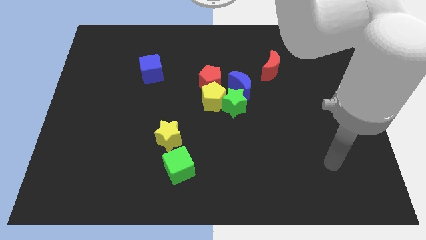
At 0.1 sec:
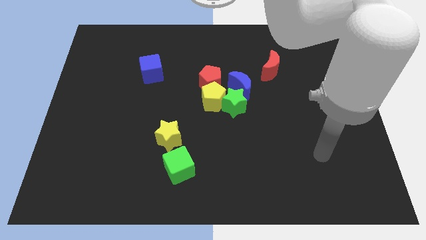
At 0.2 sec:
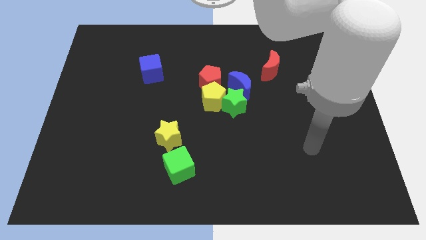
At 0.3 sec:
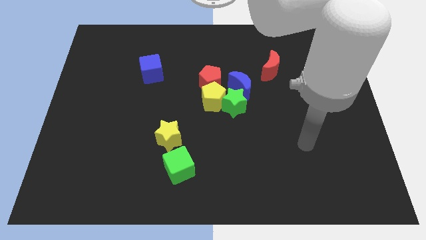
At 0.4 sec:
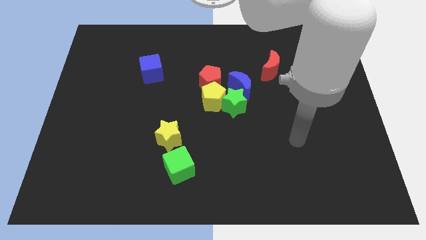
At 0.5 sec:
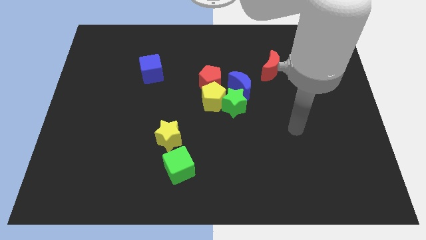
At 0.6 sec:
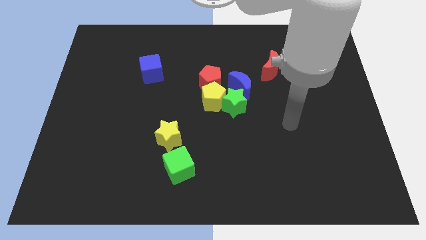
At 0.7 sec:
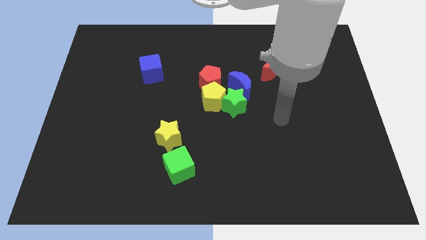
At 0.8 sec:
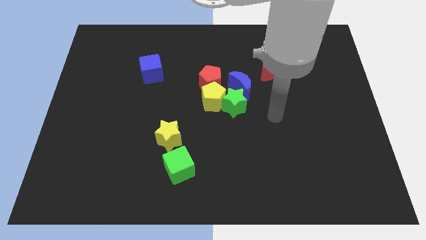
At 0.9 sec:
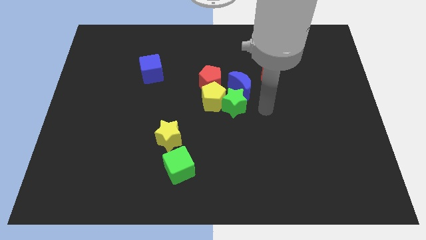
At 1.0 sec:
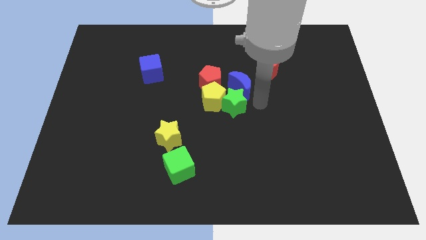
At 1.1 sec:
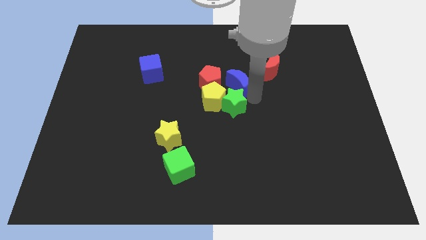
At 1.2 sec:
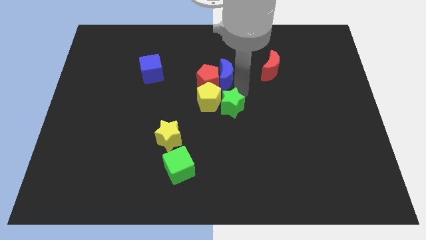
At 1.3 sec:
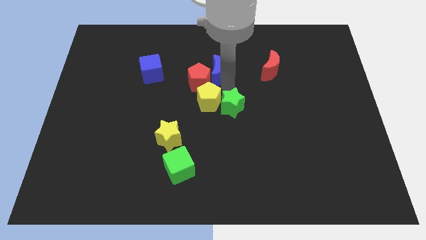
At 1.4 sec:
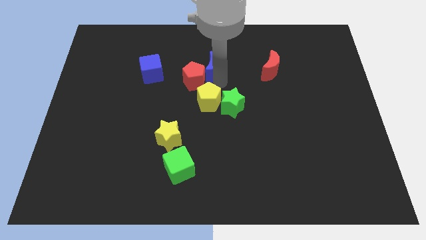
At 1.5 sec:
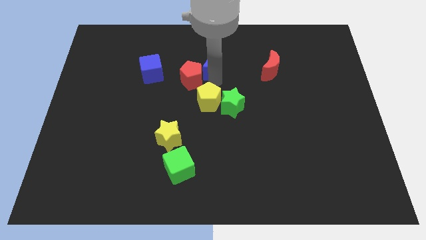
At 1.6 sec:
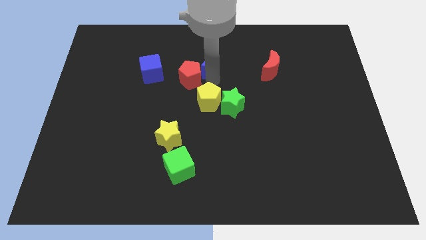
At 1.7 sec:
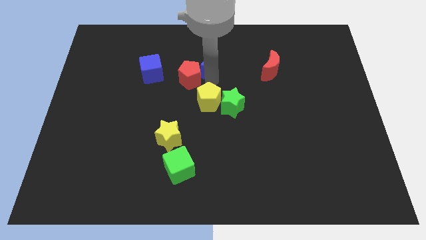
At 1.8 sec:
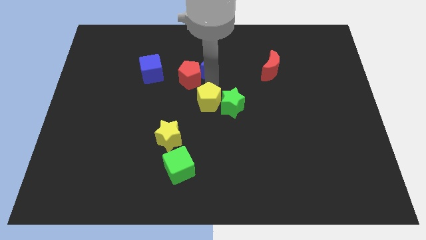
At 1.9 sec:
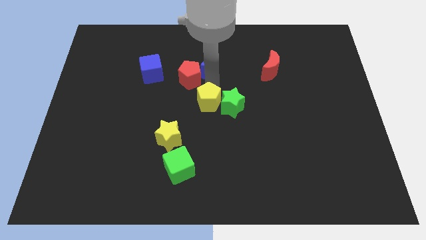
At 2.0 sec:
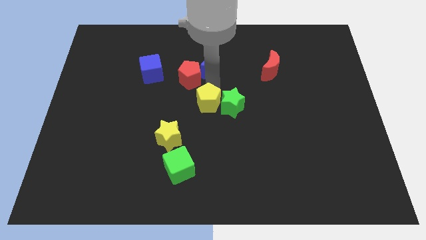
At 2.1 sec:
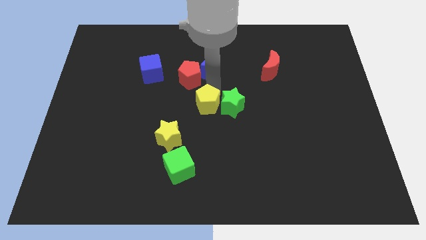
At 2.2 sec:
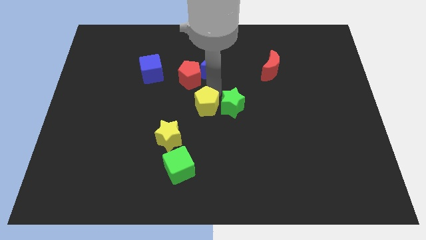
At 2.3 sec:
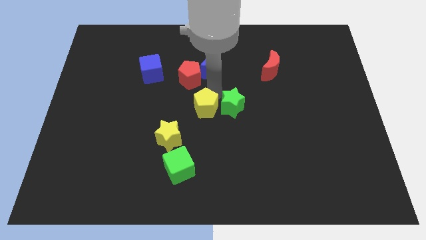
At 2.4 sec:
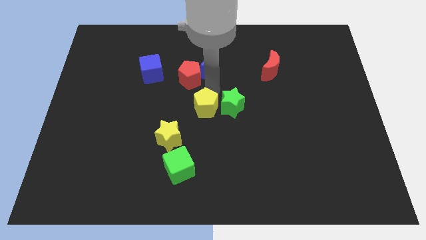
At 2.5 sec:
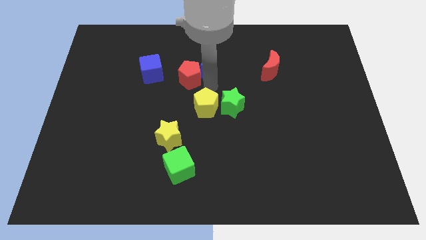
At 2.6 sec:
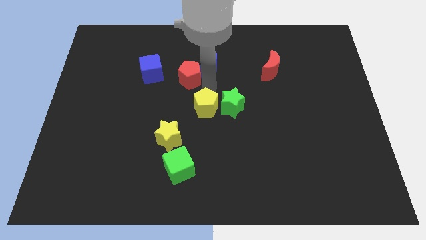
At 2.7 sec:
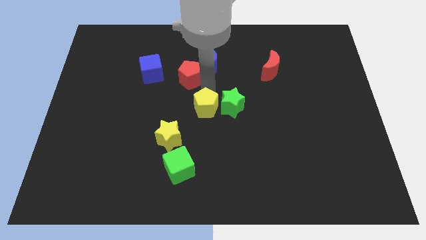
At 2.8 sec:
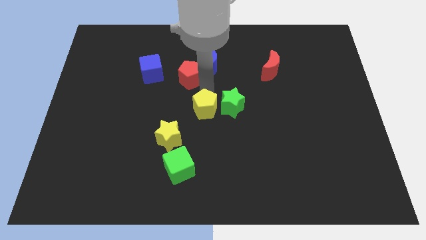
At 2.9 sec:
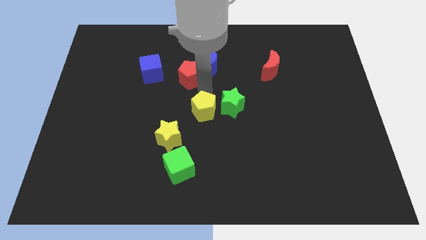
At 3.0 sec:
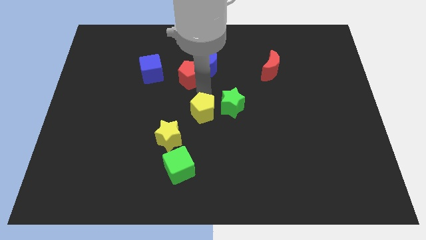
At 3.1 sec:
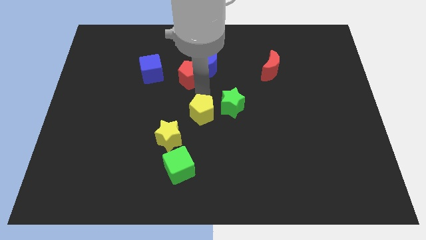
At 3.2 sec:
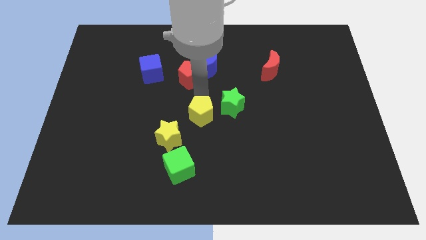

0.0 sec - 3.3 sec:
separate the yellow pentagon from the group of blocks

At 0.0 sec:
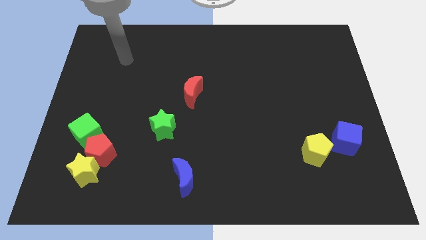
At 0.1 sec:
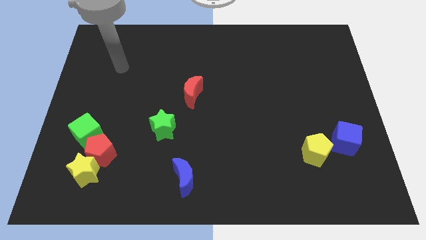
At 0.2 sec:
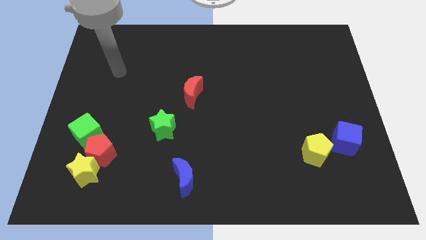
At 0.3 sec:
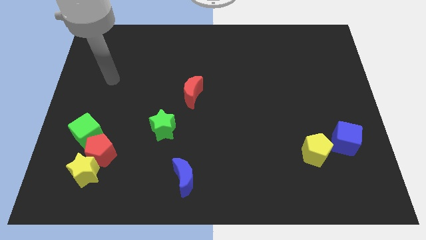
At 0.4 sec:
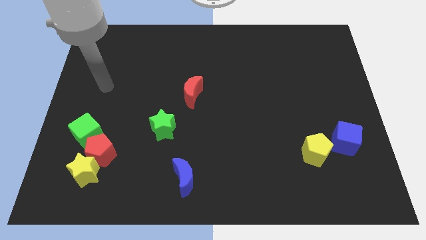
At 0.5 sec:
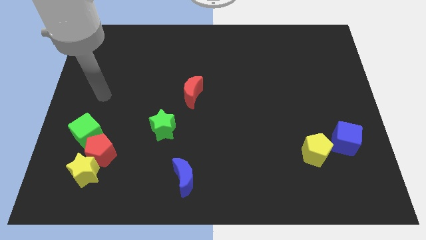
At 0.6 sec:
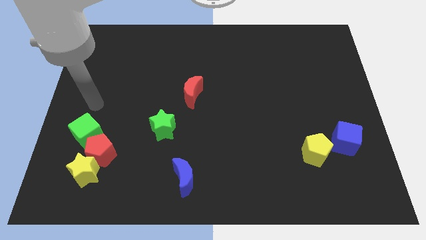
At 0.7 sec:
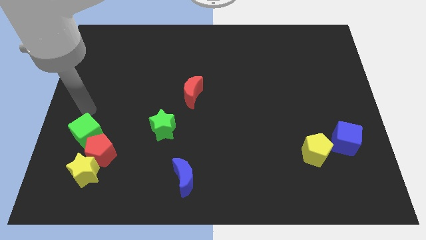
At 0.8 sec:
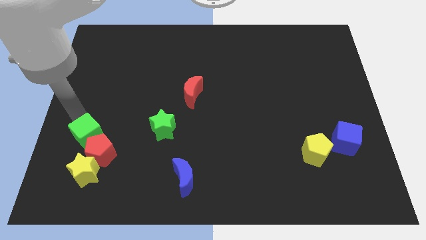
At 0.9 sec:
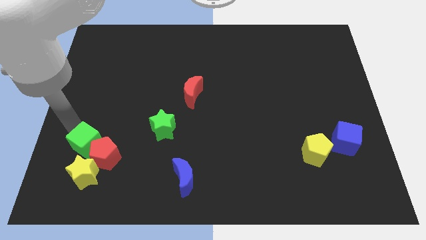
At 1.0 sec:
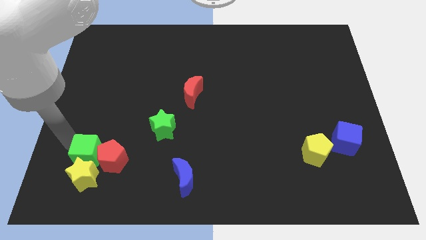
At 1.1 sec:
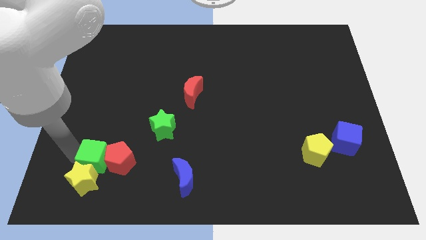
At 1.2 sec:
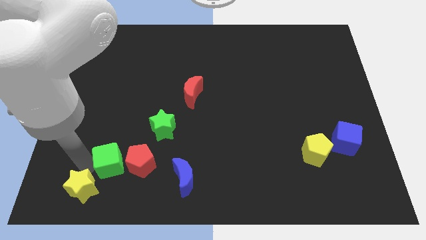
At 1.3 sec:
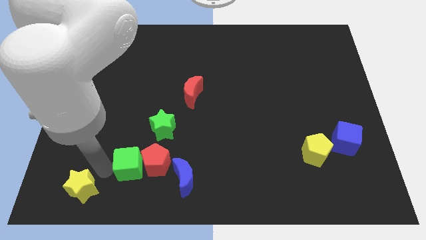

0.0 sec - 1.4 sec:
separate the red pentagon from the yellow star and green cube

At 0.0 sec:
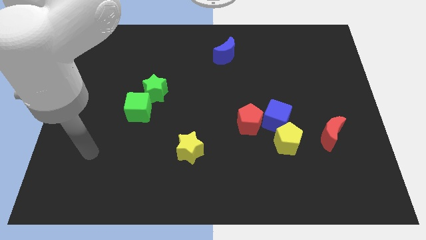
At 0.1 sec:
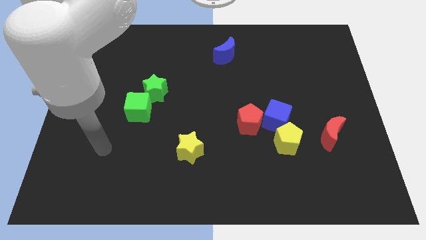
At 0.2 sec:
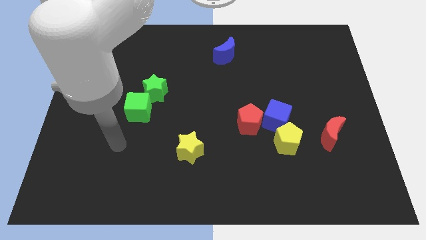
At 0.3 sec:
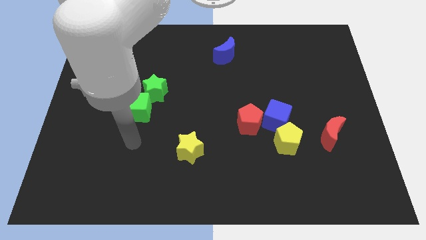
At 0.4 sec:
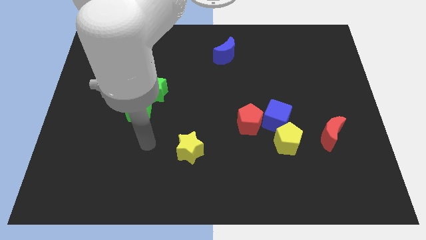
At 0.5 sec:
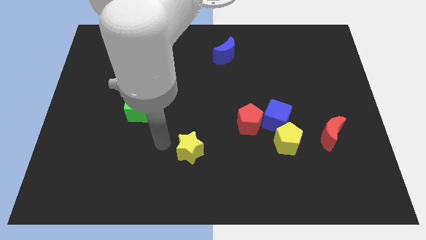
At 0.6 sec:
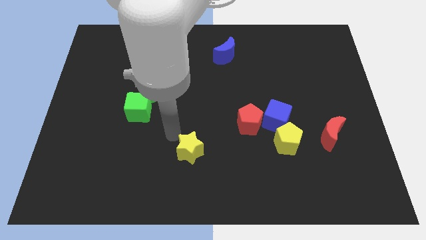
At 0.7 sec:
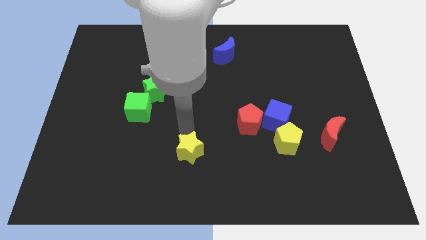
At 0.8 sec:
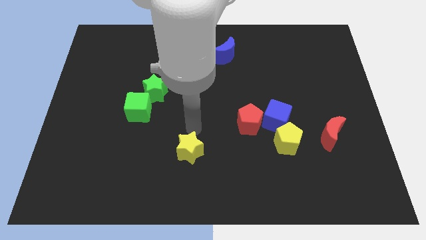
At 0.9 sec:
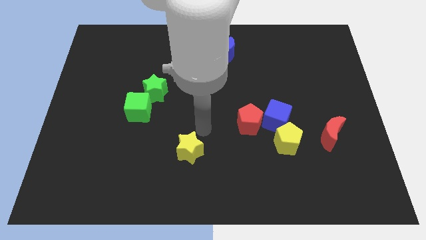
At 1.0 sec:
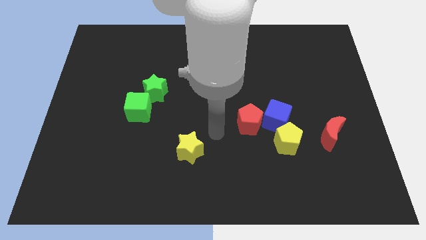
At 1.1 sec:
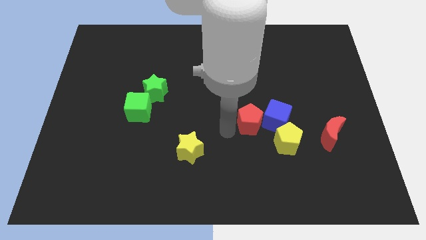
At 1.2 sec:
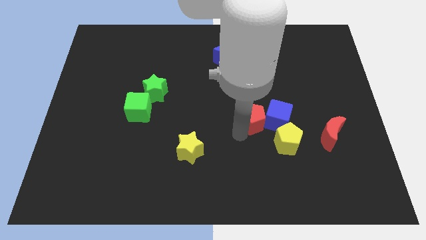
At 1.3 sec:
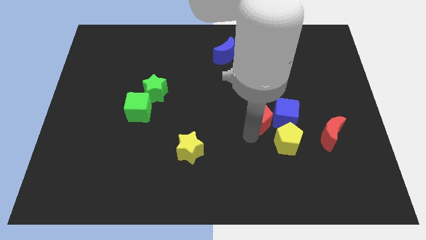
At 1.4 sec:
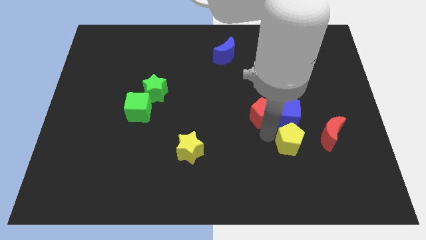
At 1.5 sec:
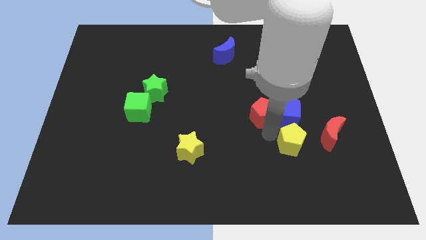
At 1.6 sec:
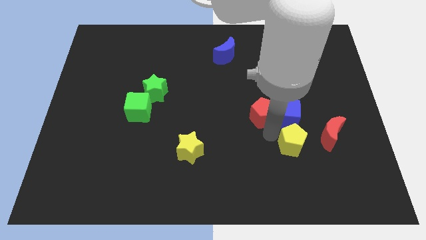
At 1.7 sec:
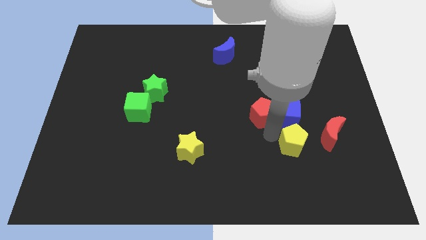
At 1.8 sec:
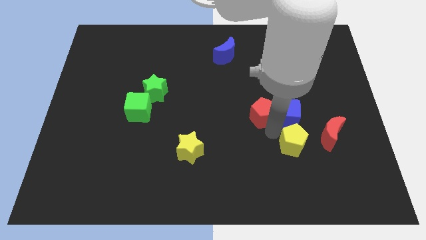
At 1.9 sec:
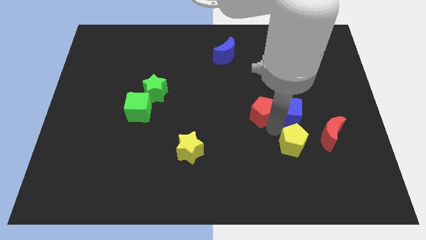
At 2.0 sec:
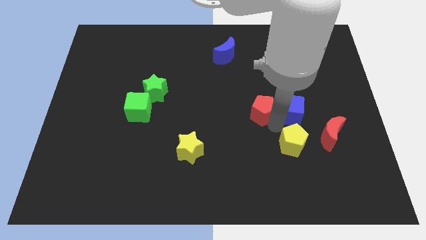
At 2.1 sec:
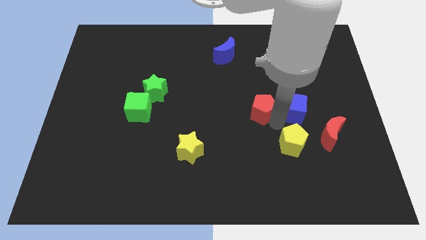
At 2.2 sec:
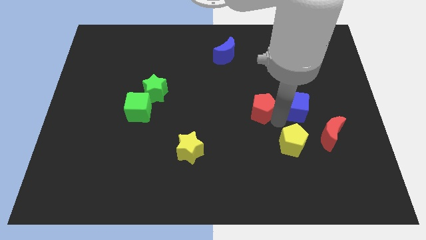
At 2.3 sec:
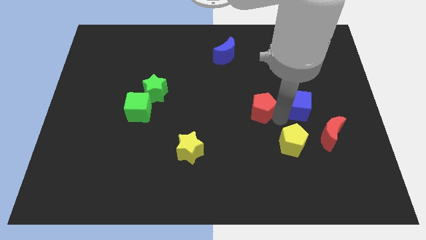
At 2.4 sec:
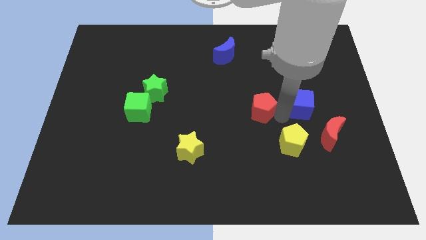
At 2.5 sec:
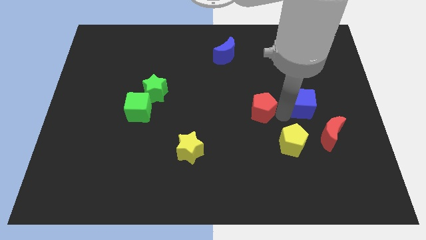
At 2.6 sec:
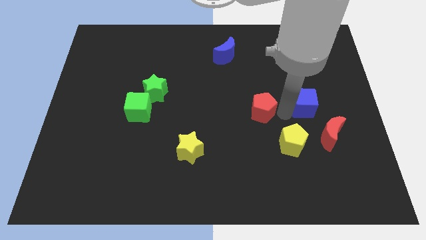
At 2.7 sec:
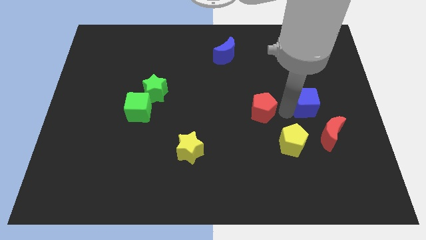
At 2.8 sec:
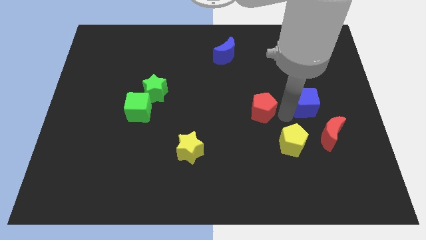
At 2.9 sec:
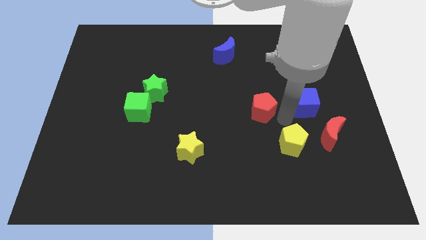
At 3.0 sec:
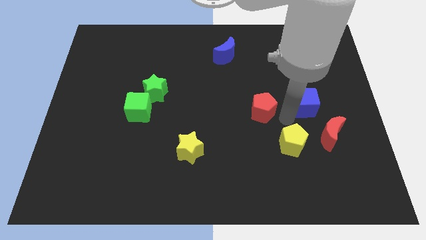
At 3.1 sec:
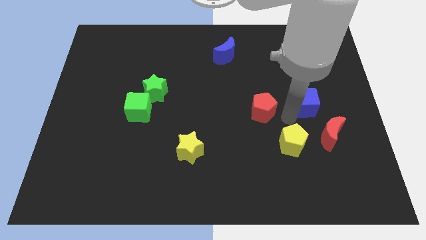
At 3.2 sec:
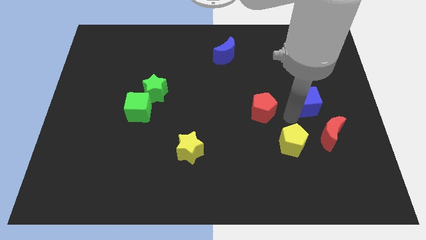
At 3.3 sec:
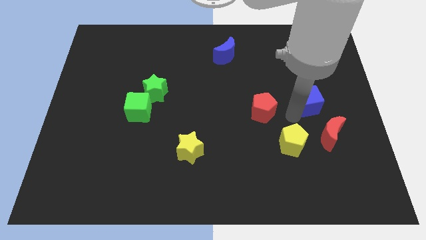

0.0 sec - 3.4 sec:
pull the blue cube apart from the red pentagon and yellow pentagon

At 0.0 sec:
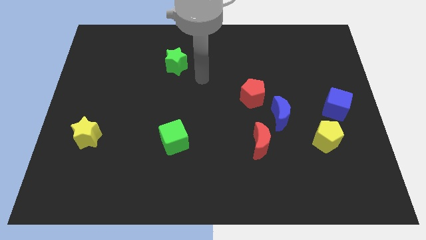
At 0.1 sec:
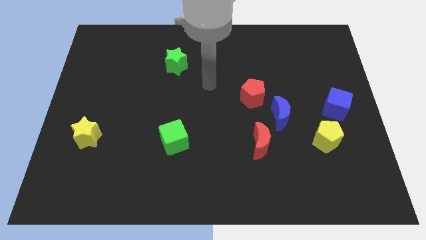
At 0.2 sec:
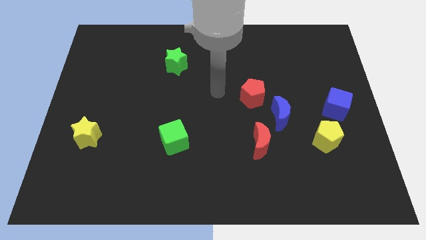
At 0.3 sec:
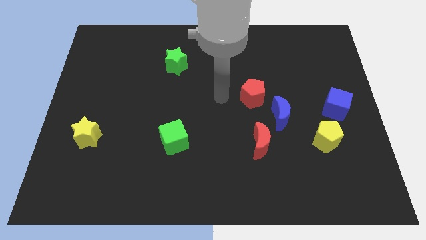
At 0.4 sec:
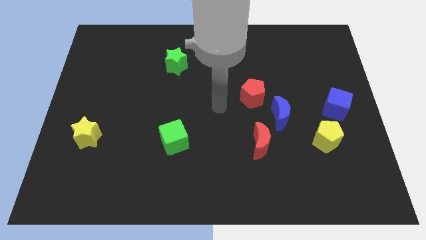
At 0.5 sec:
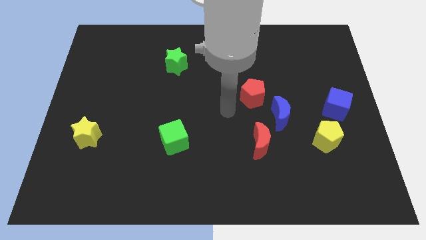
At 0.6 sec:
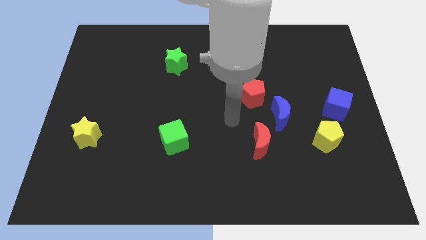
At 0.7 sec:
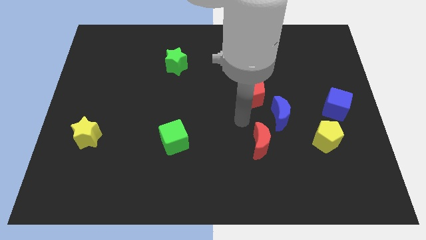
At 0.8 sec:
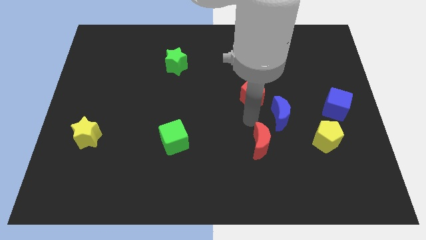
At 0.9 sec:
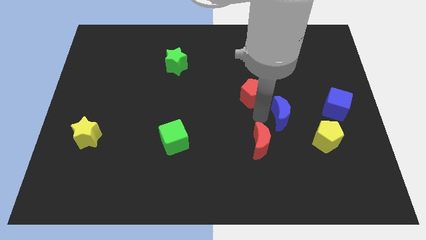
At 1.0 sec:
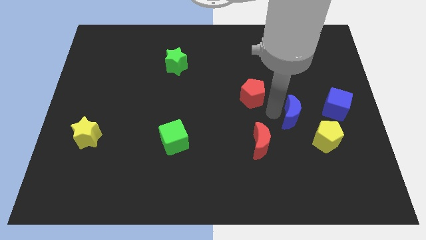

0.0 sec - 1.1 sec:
move the red pentagon away from the blue moon
